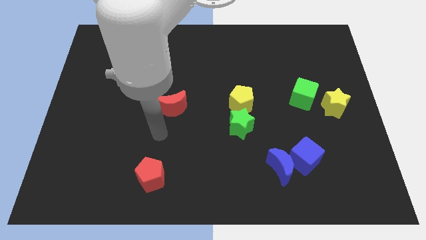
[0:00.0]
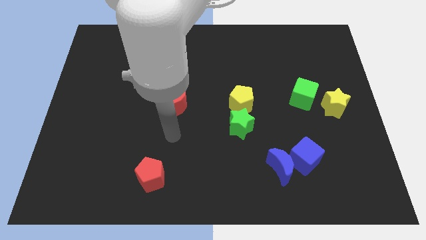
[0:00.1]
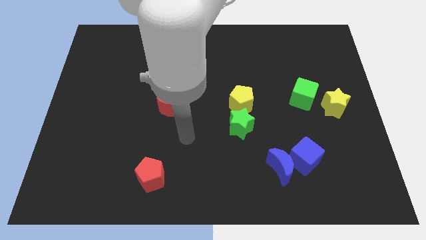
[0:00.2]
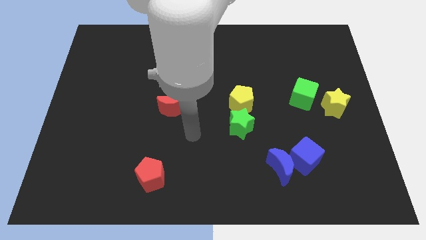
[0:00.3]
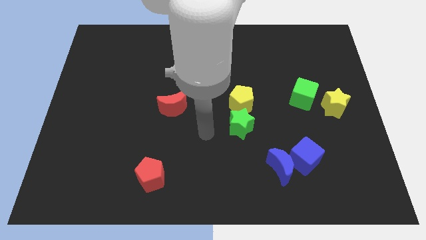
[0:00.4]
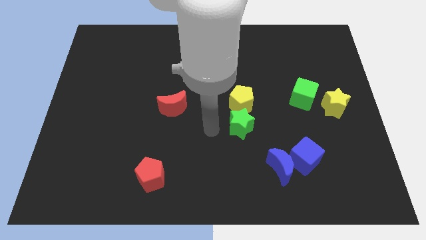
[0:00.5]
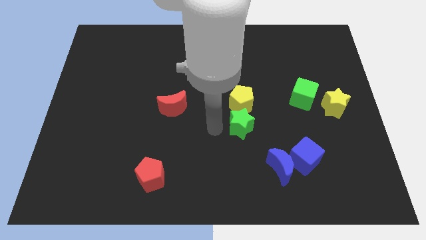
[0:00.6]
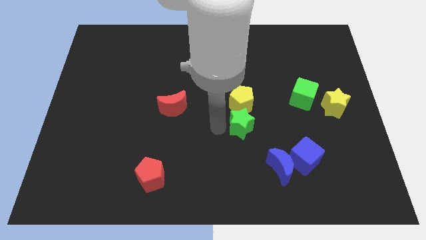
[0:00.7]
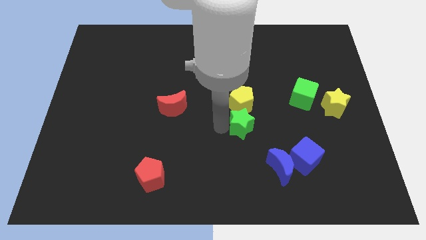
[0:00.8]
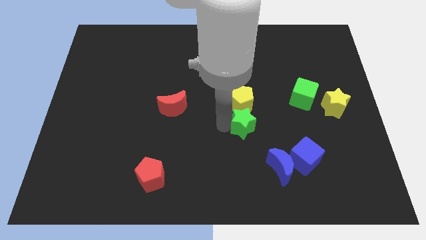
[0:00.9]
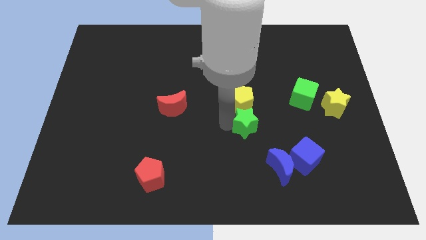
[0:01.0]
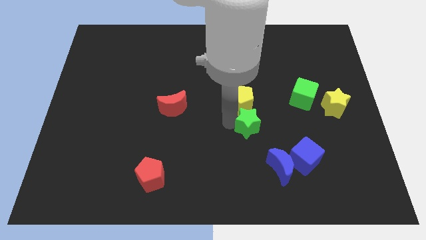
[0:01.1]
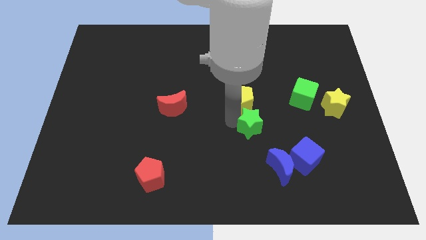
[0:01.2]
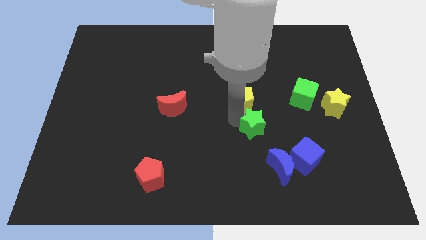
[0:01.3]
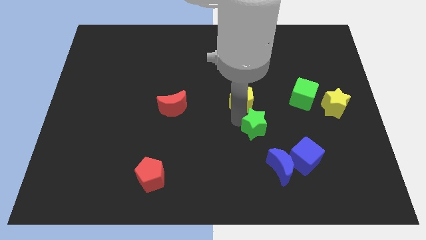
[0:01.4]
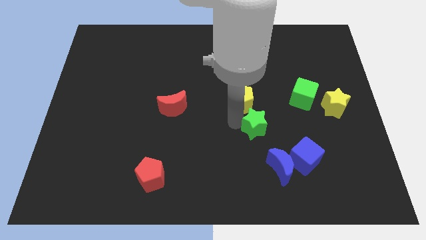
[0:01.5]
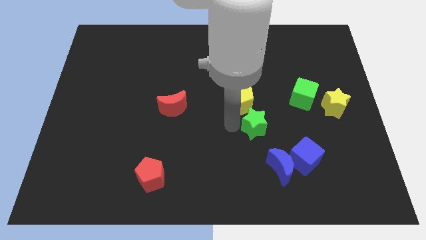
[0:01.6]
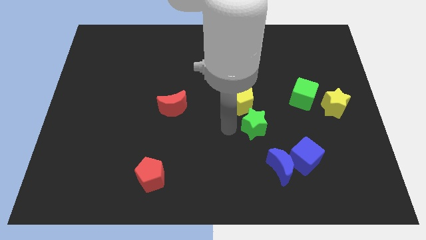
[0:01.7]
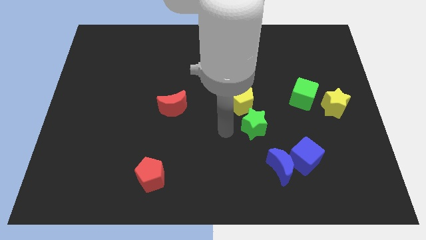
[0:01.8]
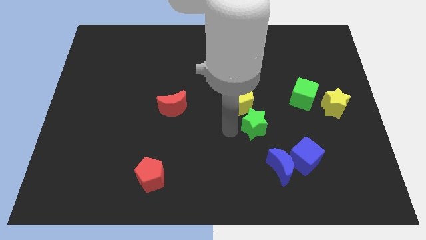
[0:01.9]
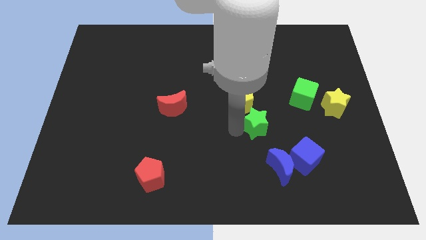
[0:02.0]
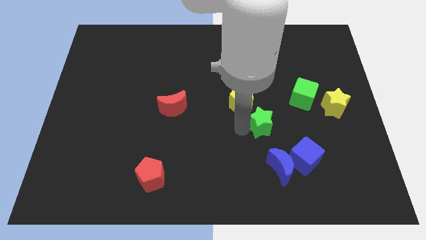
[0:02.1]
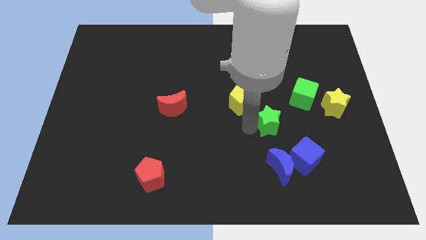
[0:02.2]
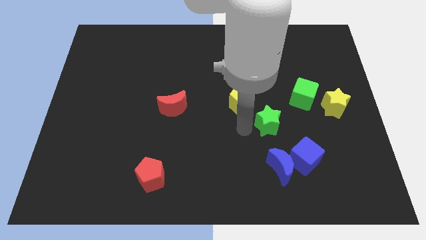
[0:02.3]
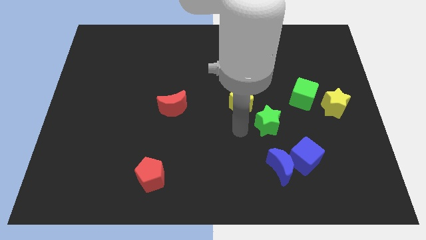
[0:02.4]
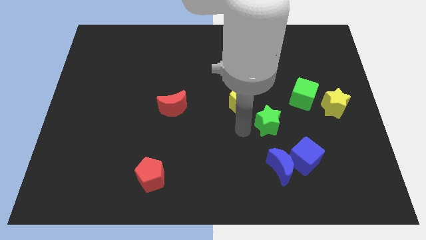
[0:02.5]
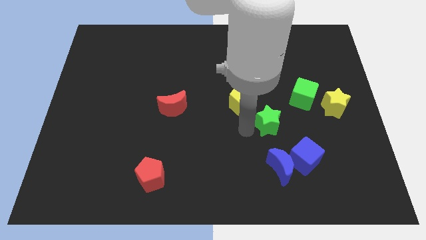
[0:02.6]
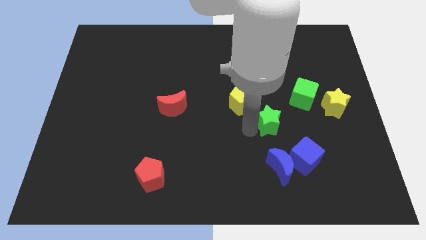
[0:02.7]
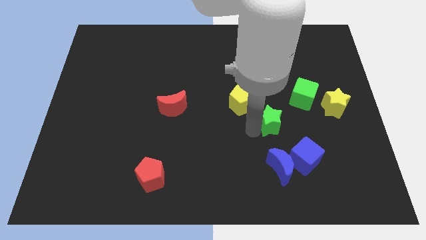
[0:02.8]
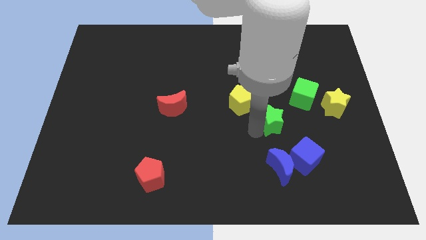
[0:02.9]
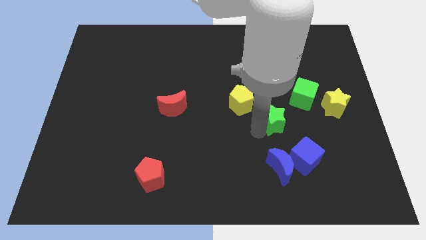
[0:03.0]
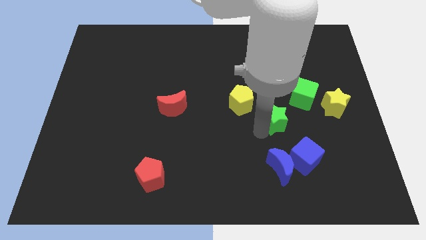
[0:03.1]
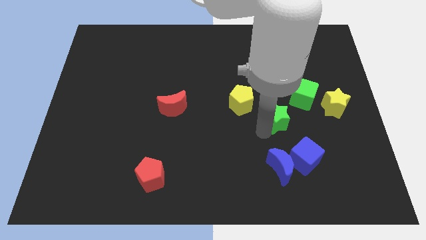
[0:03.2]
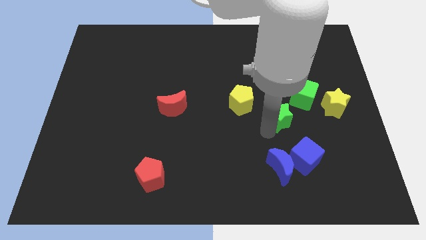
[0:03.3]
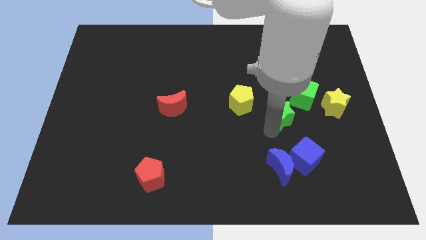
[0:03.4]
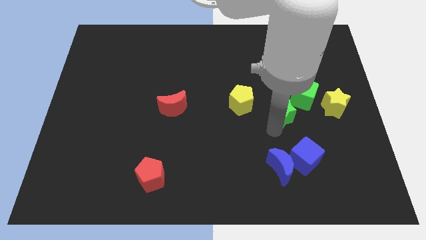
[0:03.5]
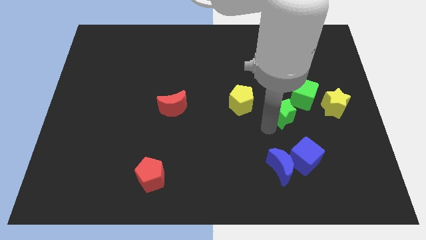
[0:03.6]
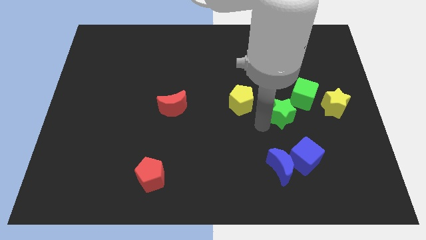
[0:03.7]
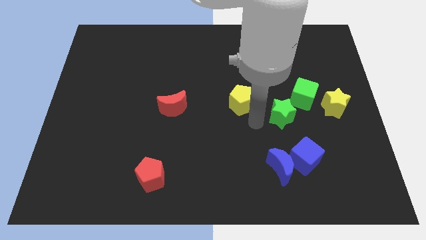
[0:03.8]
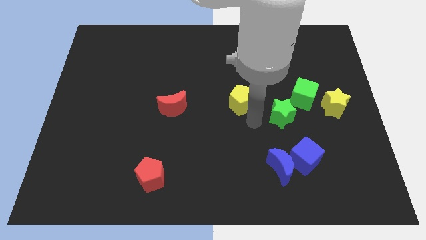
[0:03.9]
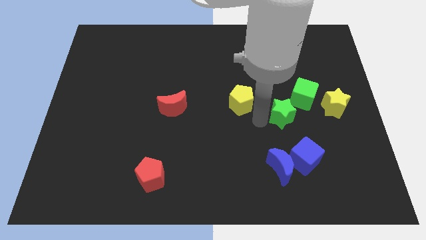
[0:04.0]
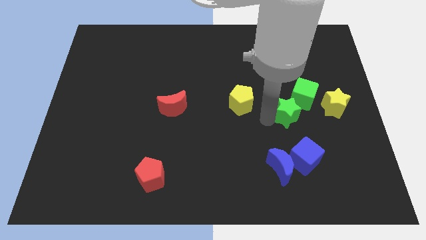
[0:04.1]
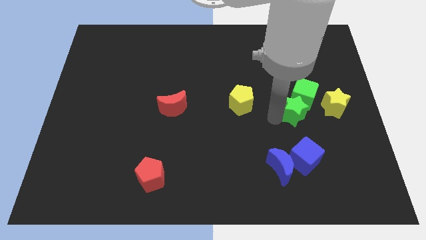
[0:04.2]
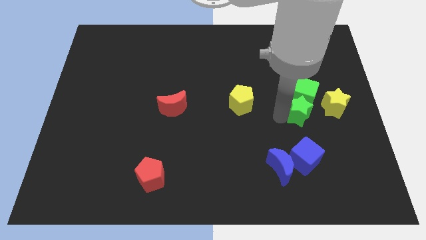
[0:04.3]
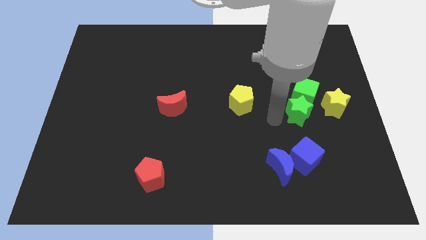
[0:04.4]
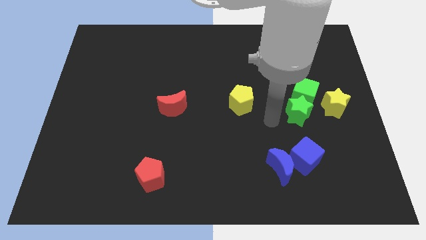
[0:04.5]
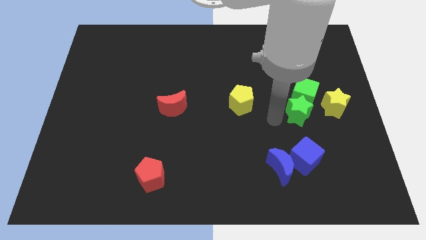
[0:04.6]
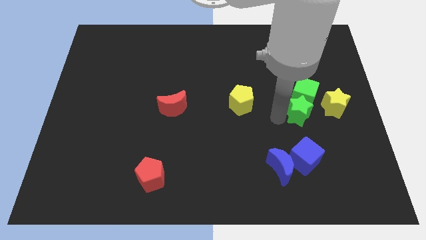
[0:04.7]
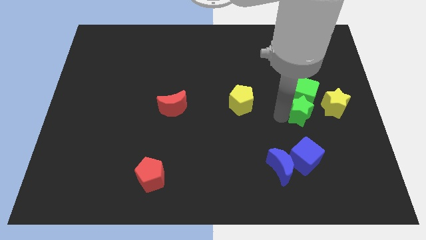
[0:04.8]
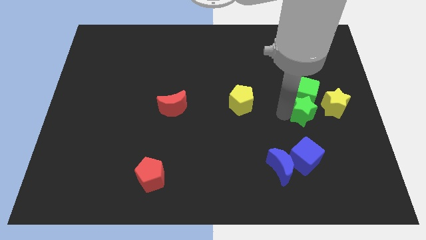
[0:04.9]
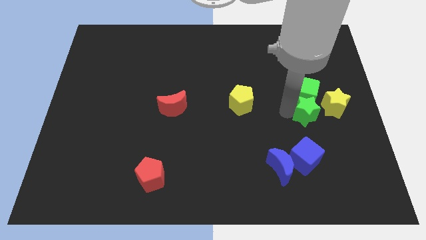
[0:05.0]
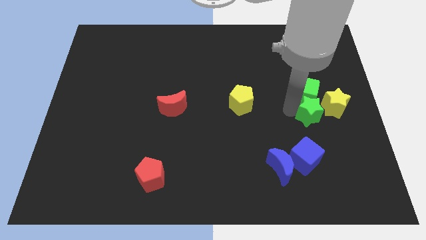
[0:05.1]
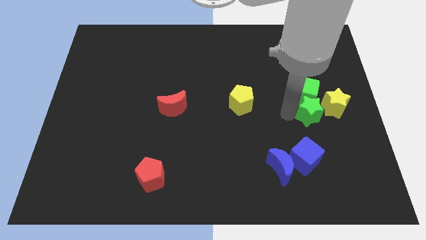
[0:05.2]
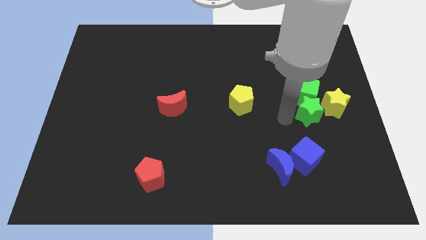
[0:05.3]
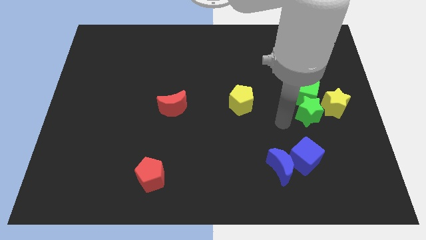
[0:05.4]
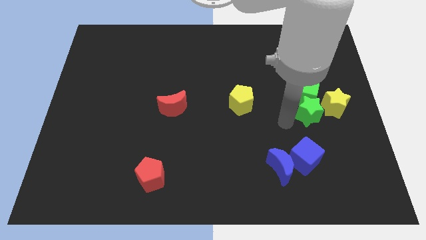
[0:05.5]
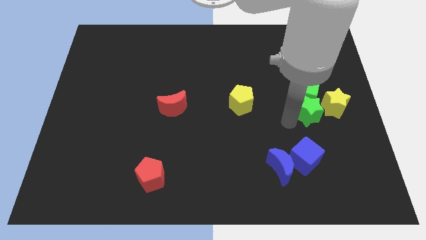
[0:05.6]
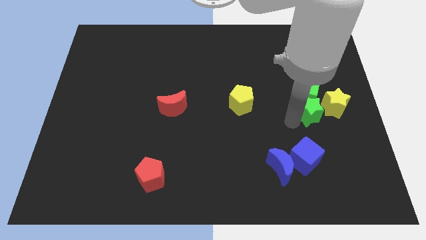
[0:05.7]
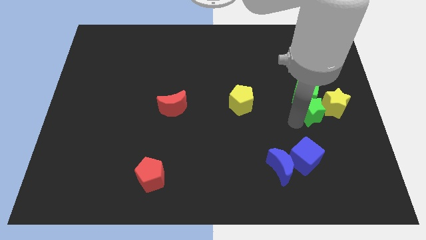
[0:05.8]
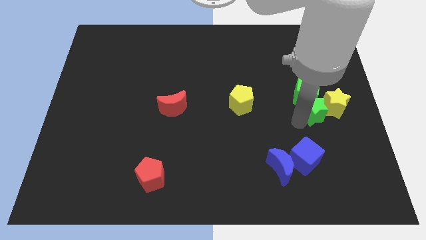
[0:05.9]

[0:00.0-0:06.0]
push the green star close to the yellow star

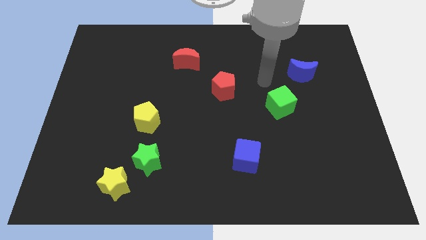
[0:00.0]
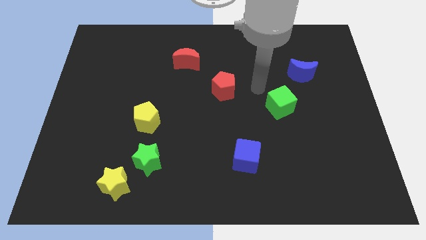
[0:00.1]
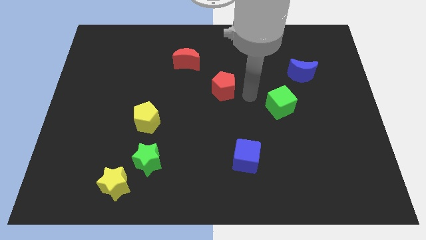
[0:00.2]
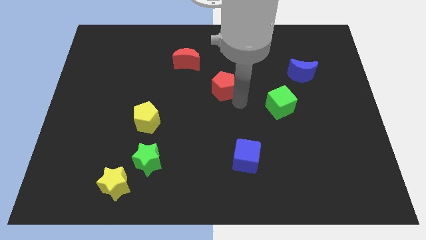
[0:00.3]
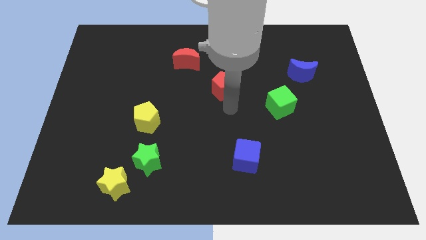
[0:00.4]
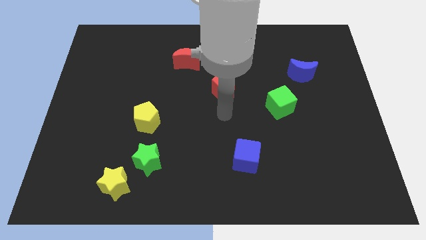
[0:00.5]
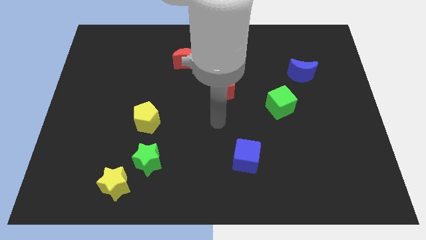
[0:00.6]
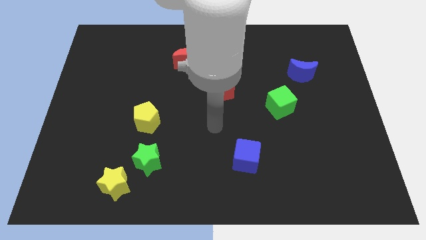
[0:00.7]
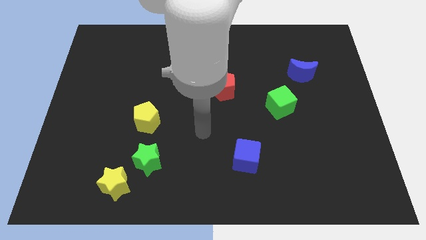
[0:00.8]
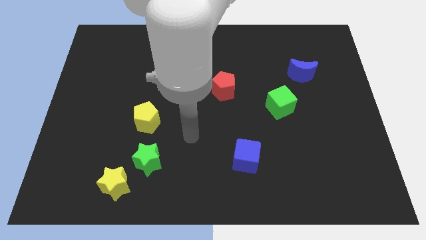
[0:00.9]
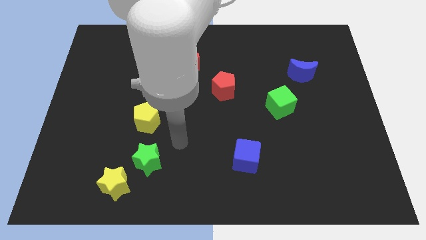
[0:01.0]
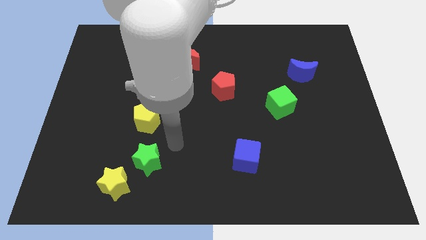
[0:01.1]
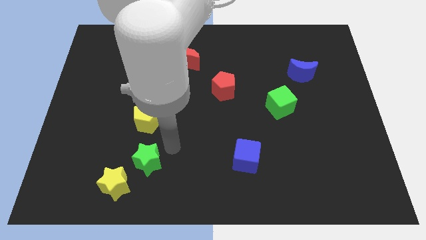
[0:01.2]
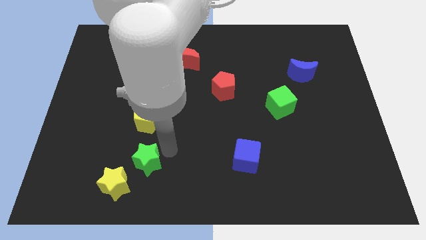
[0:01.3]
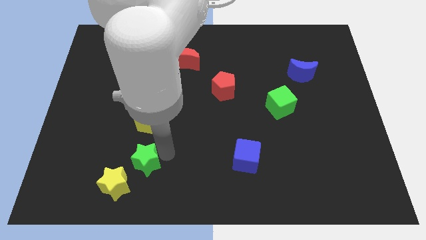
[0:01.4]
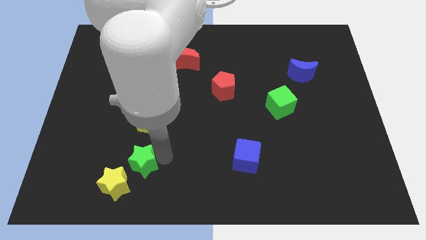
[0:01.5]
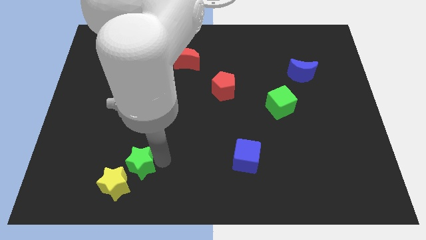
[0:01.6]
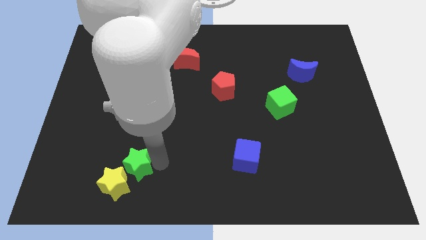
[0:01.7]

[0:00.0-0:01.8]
move the green star close to the yellow star
